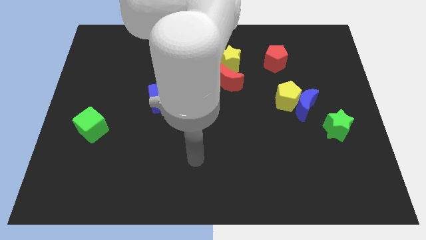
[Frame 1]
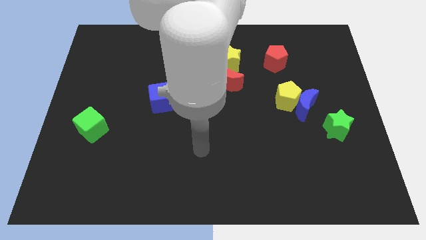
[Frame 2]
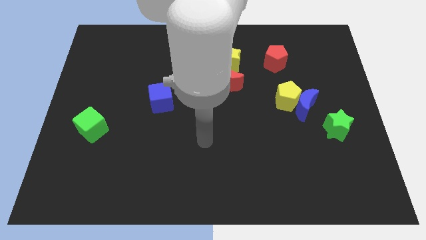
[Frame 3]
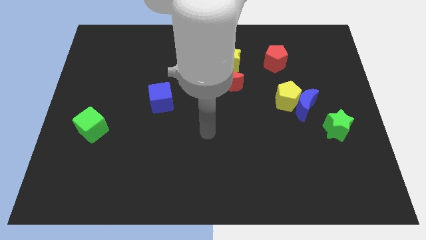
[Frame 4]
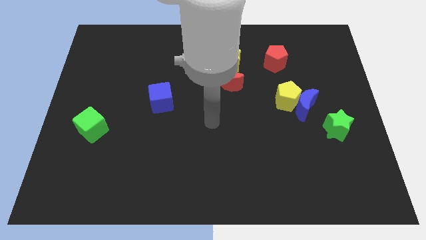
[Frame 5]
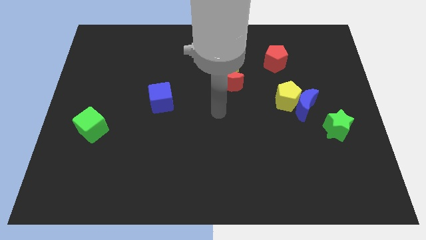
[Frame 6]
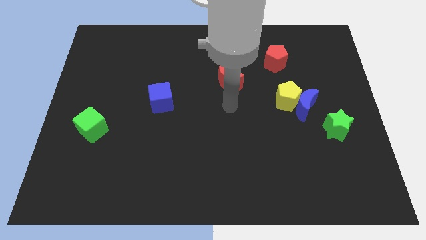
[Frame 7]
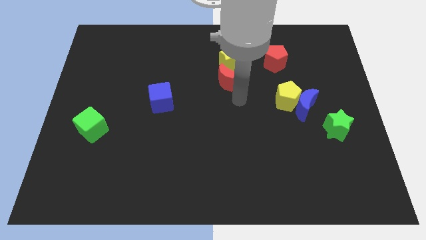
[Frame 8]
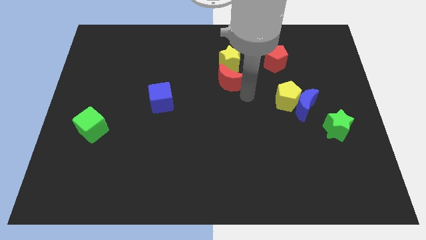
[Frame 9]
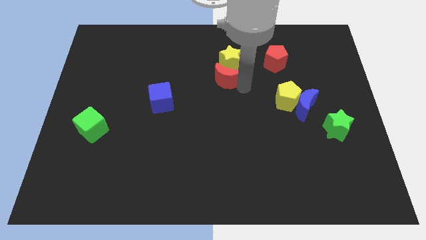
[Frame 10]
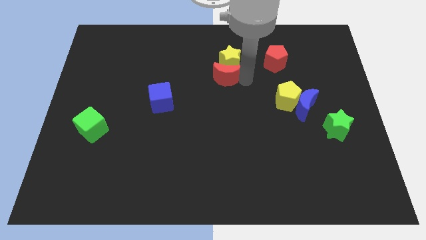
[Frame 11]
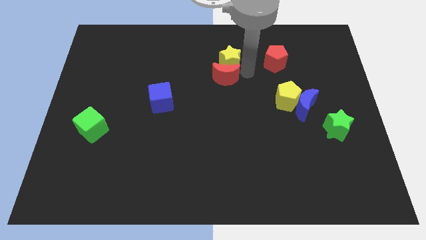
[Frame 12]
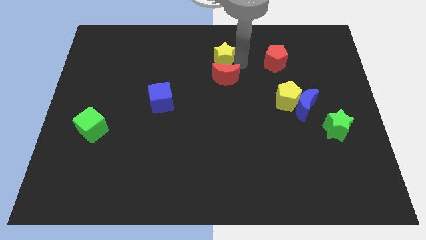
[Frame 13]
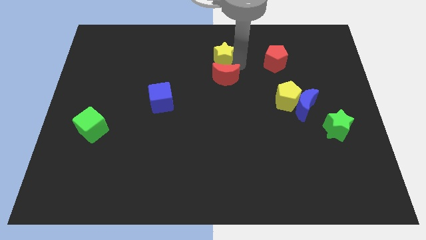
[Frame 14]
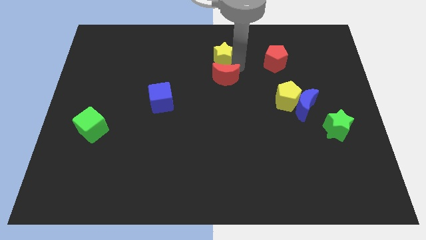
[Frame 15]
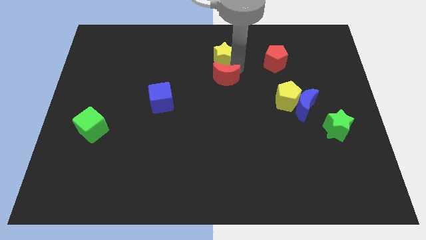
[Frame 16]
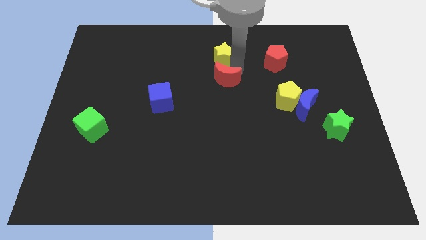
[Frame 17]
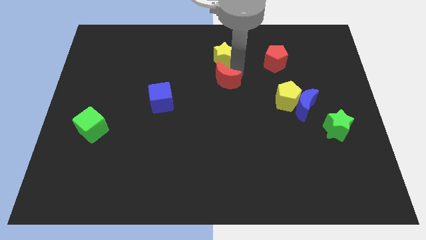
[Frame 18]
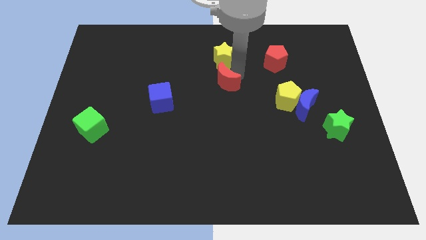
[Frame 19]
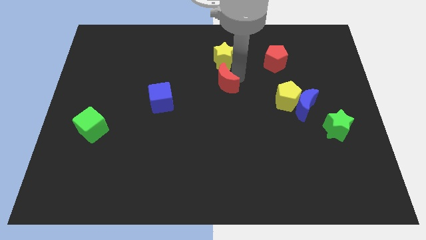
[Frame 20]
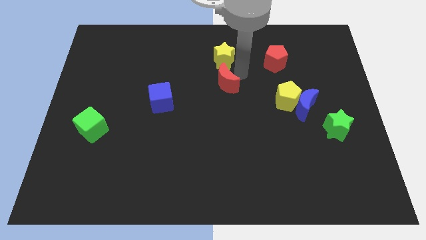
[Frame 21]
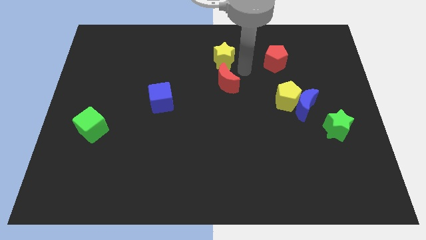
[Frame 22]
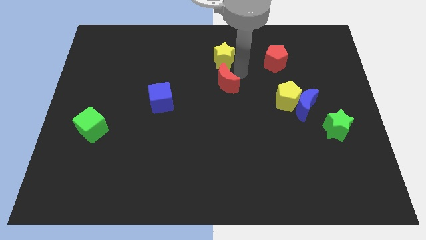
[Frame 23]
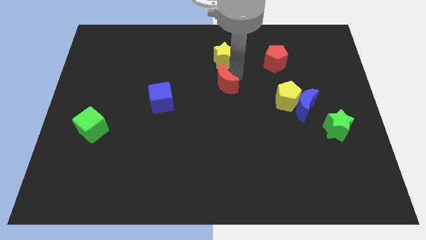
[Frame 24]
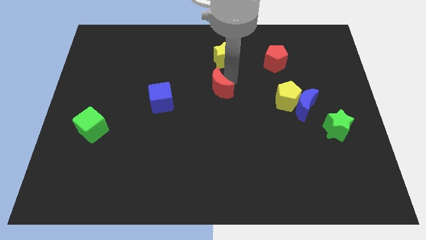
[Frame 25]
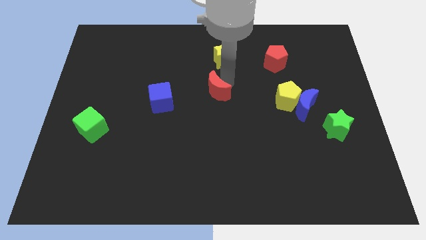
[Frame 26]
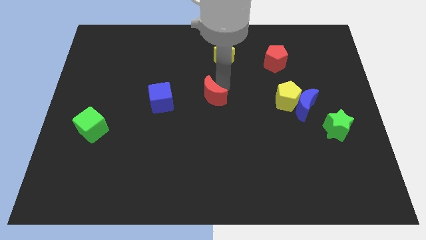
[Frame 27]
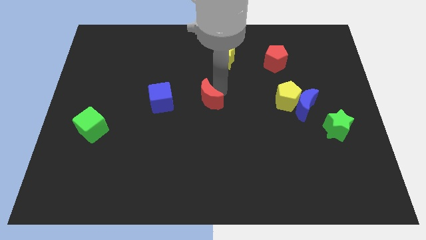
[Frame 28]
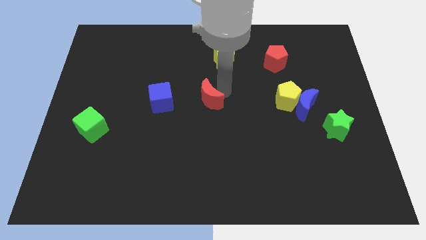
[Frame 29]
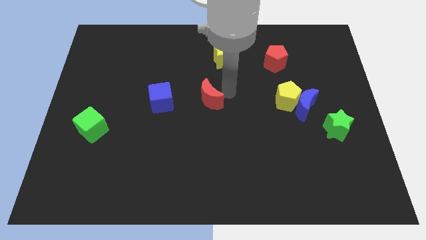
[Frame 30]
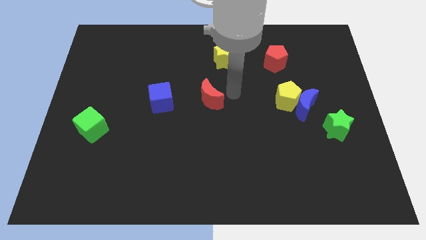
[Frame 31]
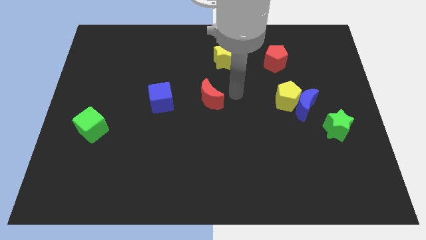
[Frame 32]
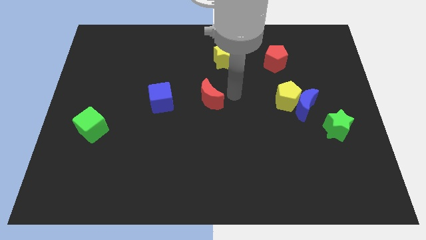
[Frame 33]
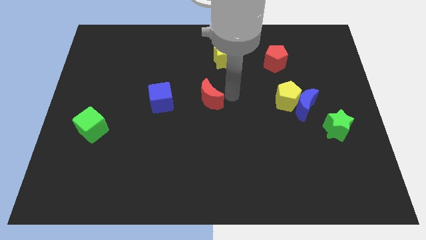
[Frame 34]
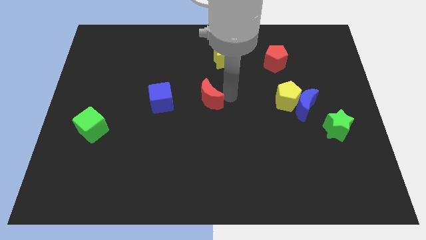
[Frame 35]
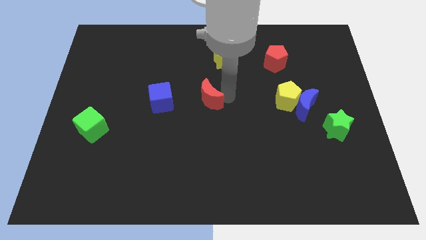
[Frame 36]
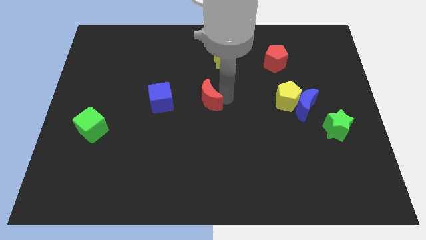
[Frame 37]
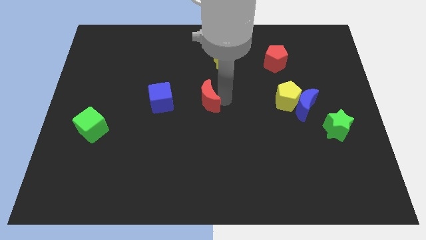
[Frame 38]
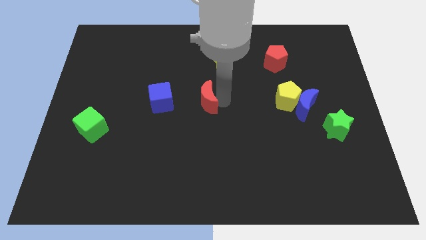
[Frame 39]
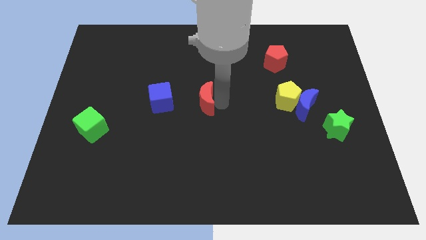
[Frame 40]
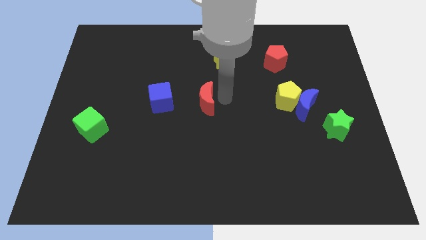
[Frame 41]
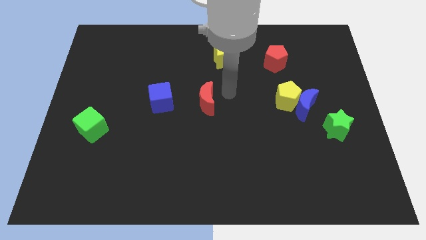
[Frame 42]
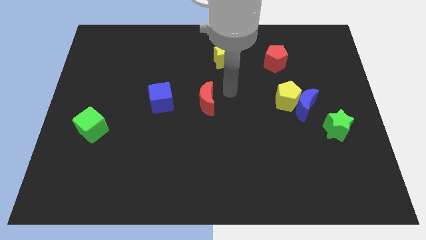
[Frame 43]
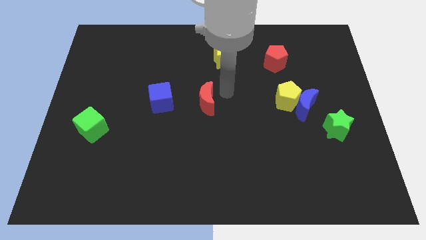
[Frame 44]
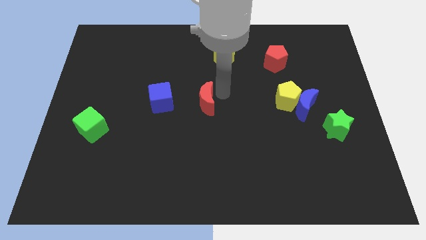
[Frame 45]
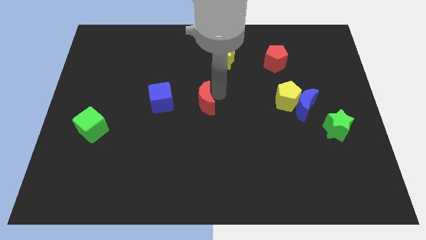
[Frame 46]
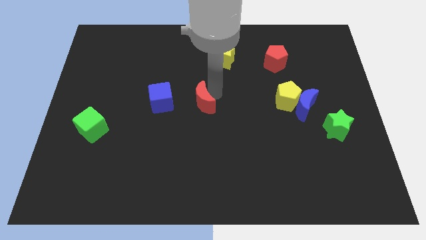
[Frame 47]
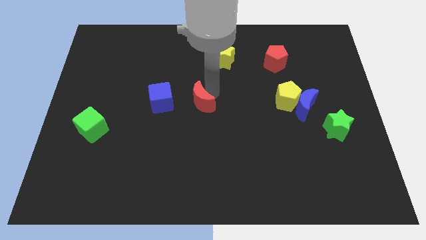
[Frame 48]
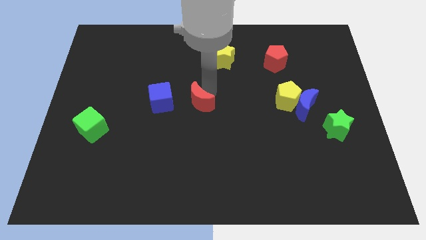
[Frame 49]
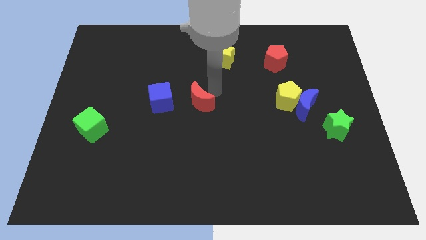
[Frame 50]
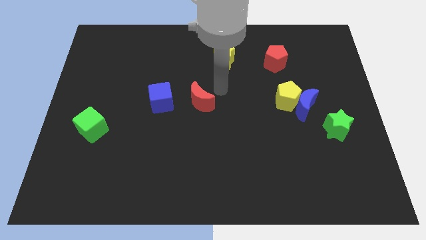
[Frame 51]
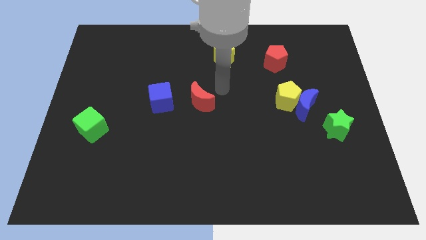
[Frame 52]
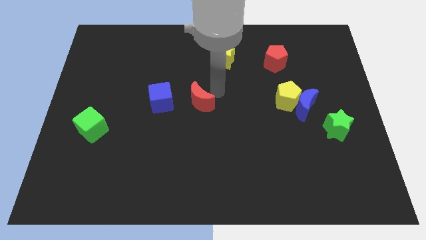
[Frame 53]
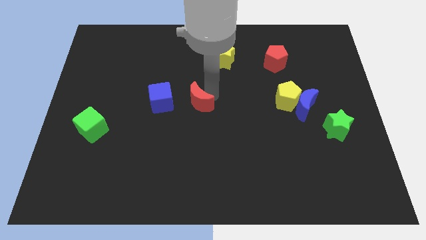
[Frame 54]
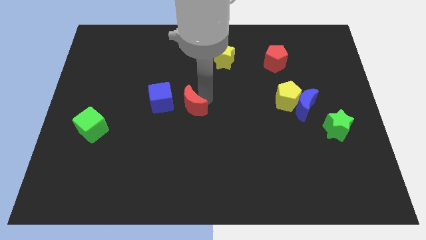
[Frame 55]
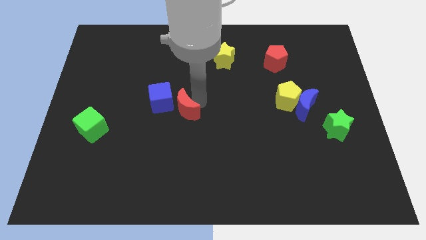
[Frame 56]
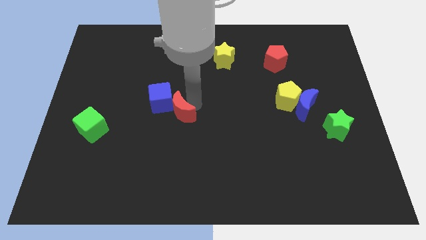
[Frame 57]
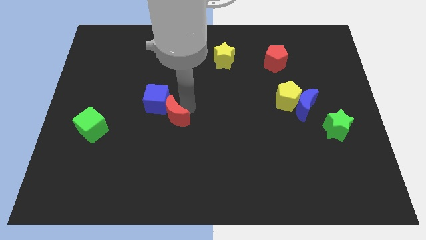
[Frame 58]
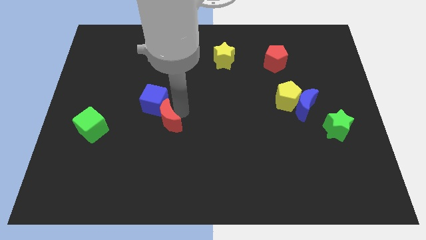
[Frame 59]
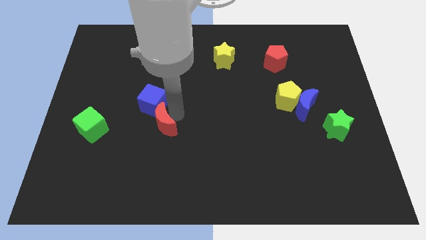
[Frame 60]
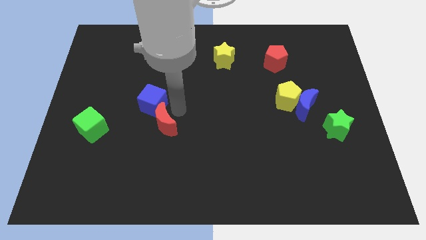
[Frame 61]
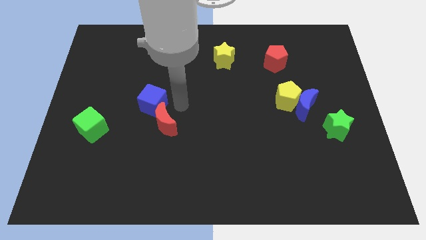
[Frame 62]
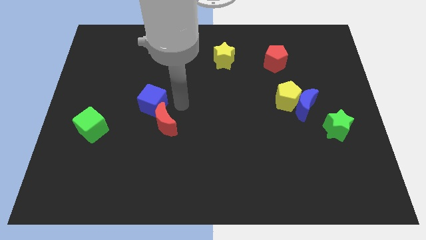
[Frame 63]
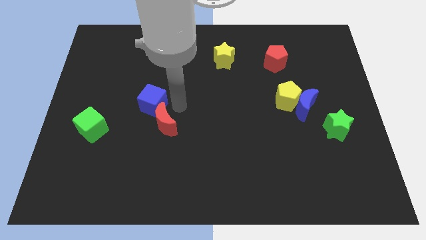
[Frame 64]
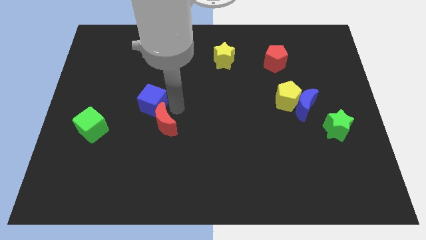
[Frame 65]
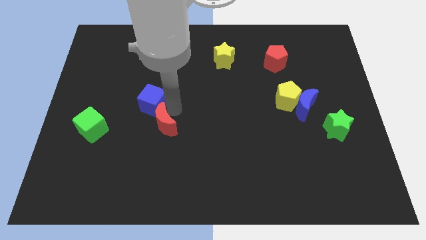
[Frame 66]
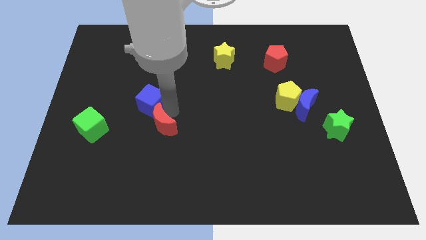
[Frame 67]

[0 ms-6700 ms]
slide the red moon downwards and to the left

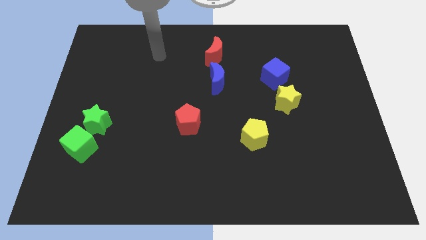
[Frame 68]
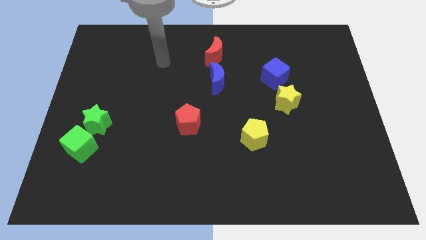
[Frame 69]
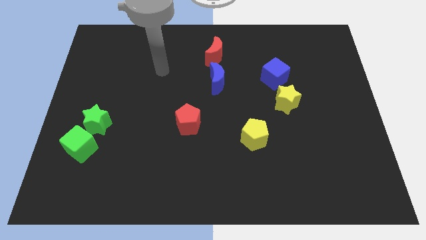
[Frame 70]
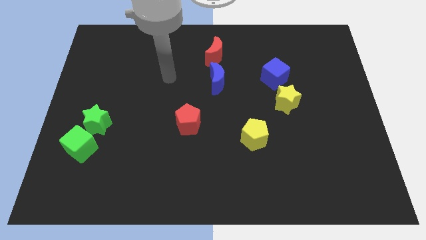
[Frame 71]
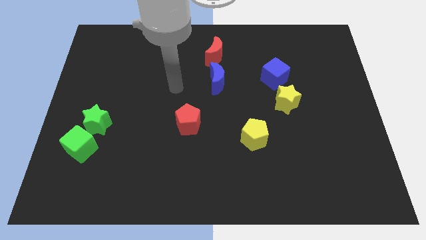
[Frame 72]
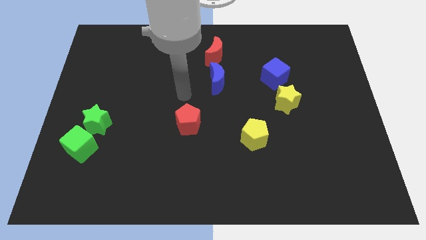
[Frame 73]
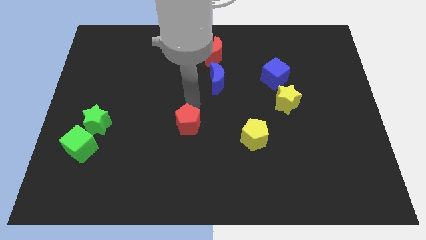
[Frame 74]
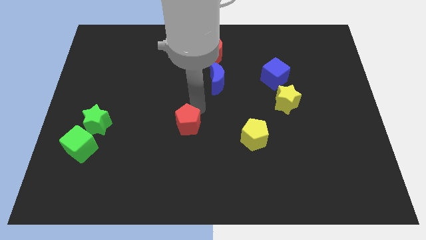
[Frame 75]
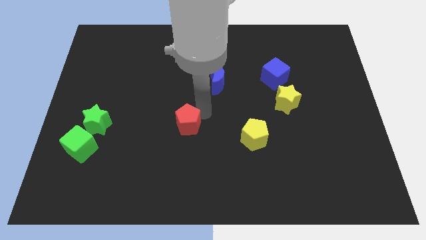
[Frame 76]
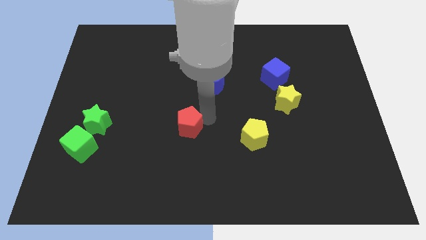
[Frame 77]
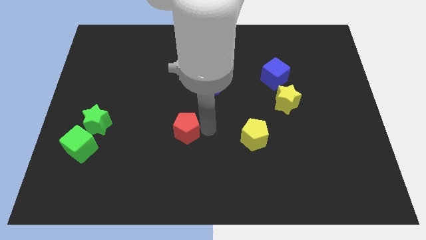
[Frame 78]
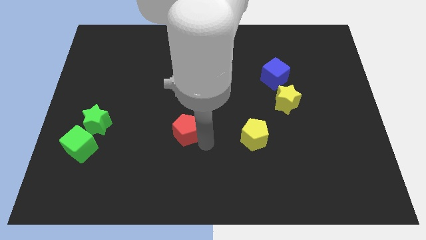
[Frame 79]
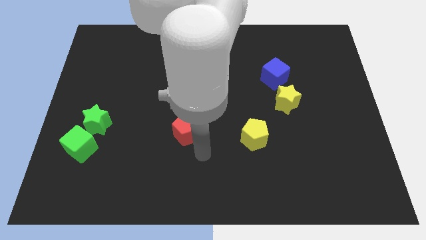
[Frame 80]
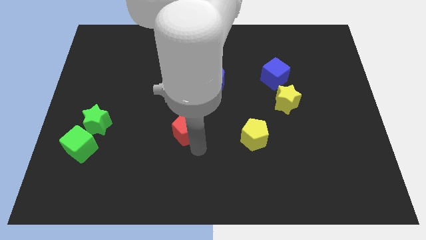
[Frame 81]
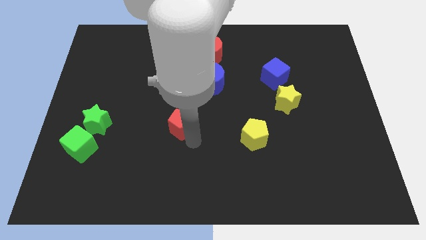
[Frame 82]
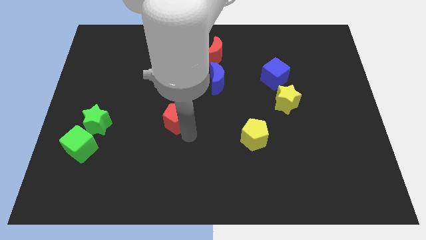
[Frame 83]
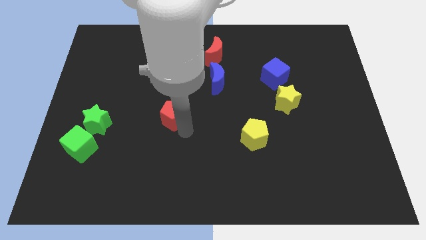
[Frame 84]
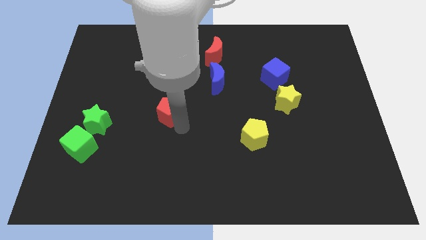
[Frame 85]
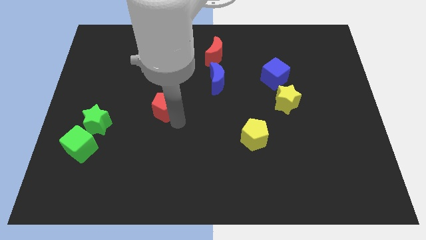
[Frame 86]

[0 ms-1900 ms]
move the red pentagon upwards and then left a little bit
